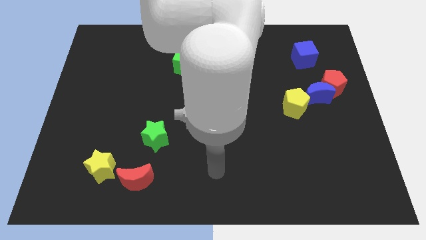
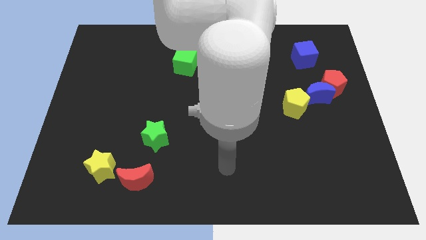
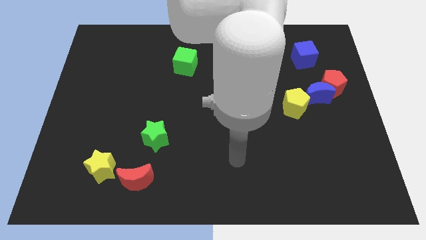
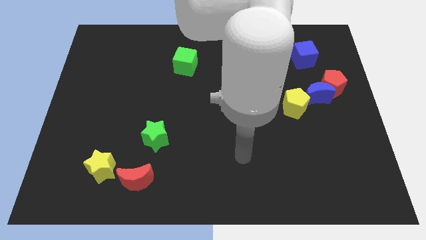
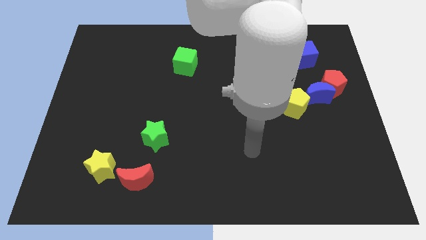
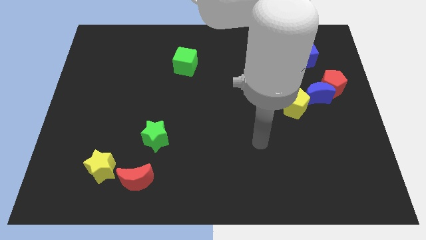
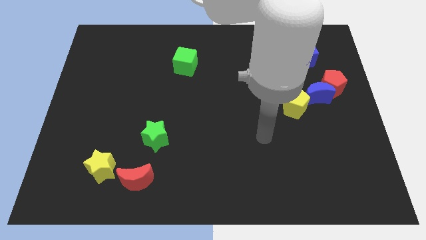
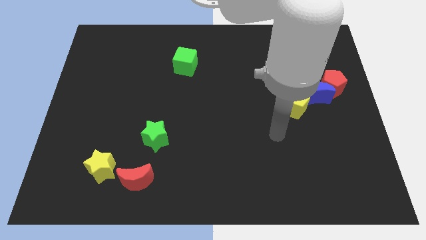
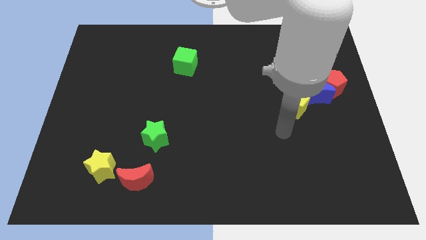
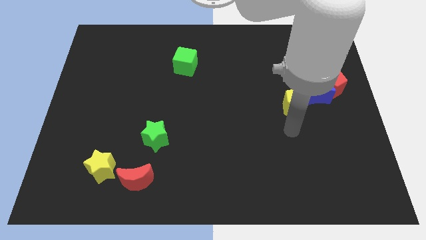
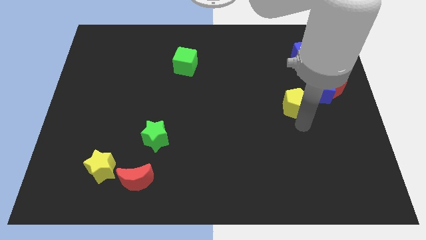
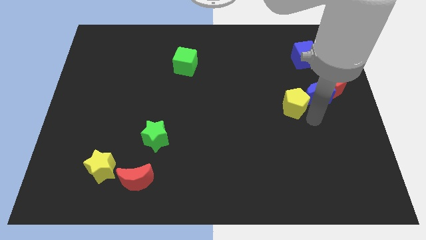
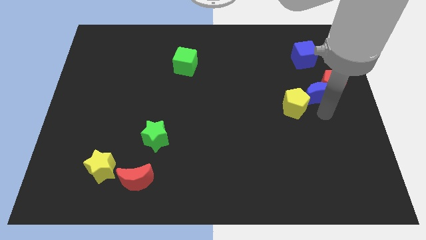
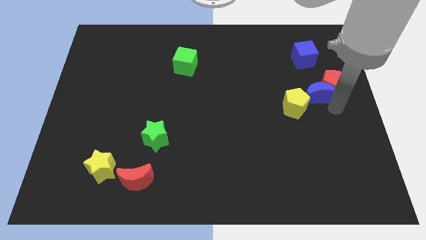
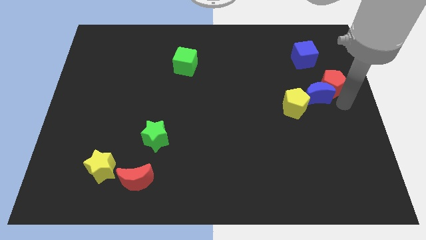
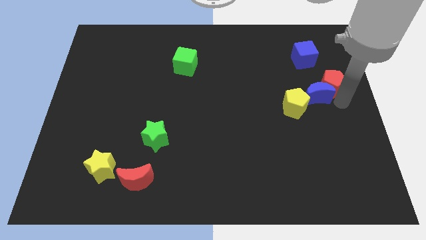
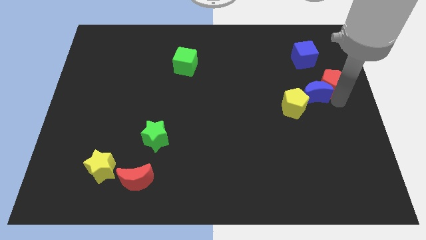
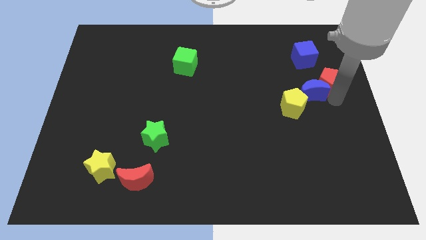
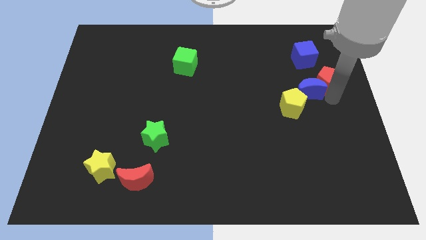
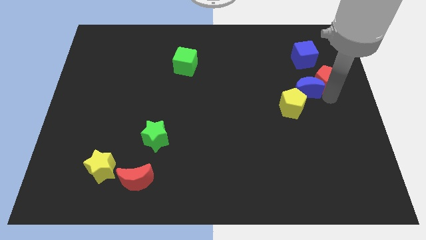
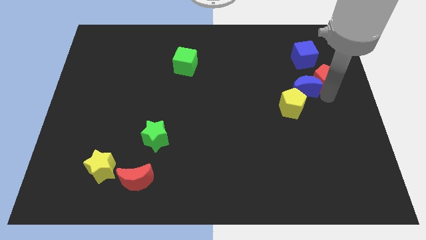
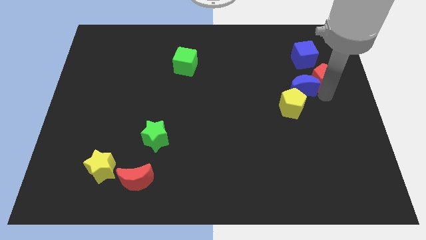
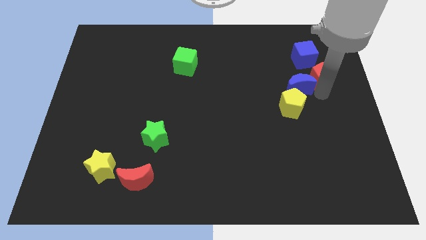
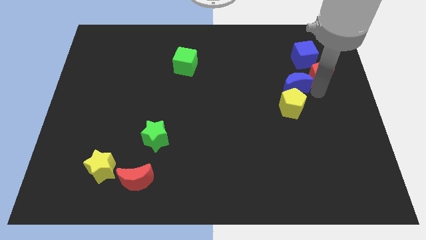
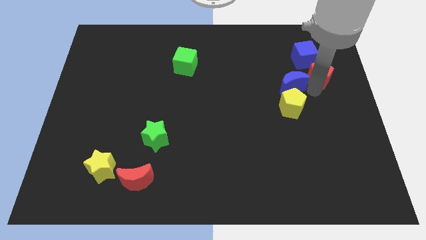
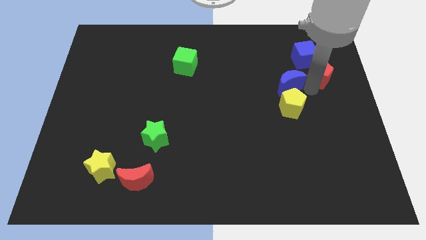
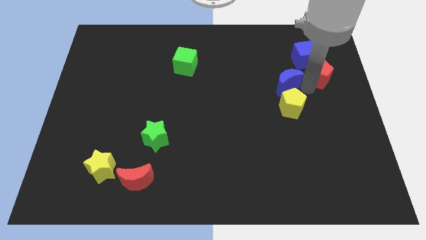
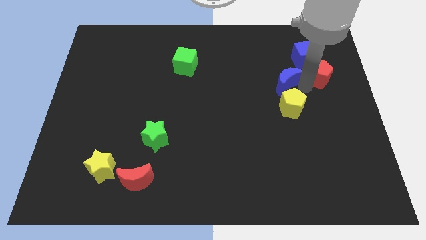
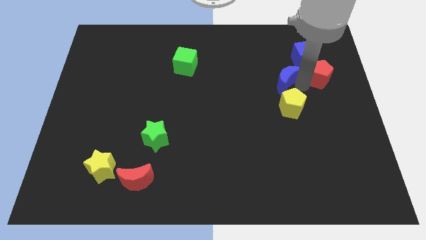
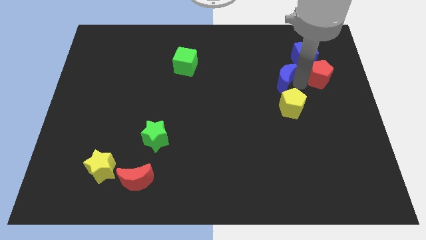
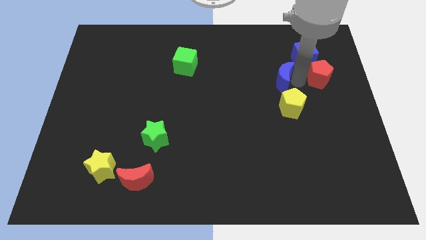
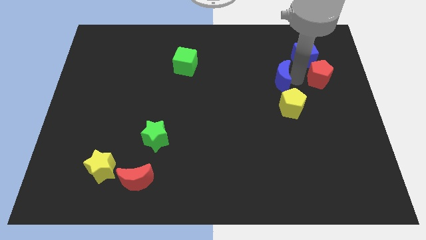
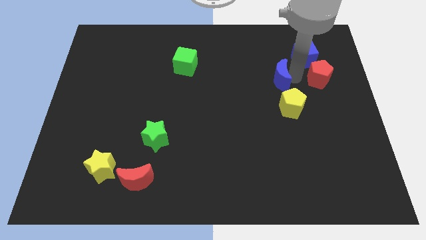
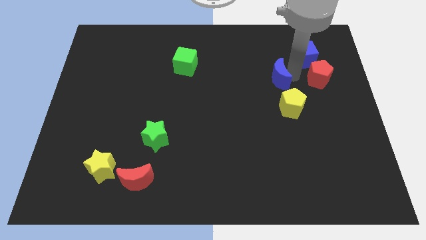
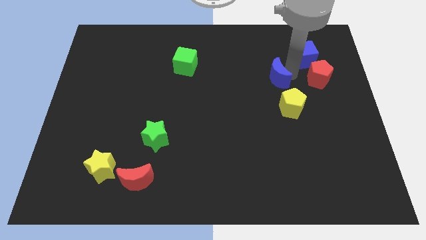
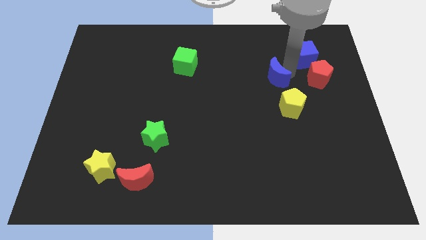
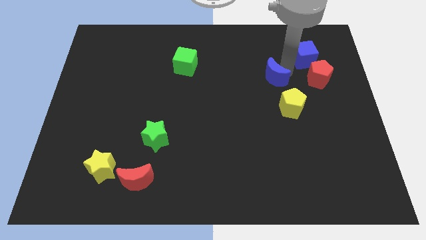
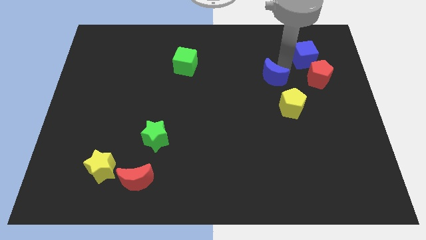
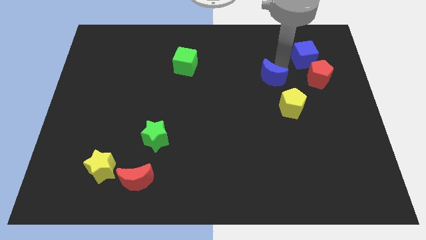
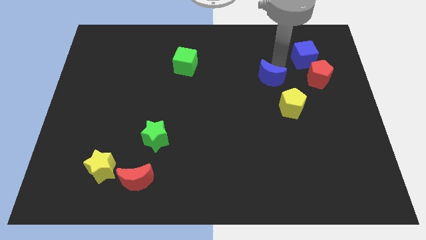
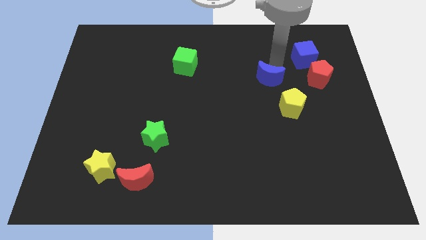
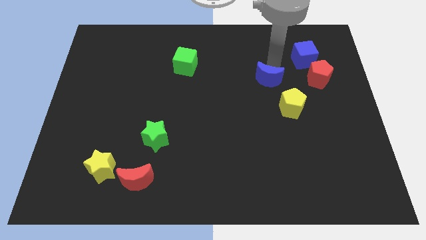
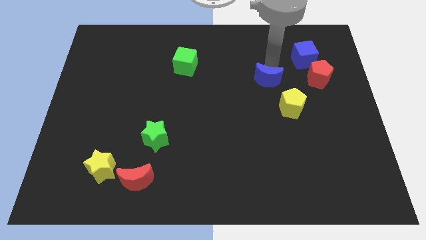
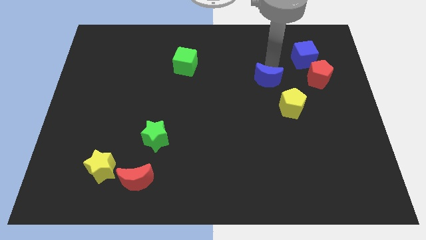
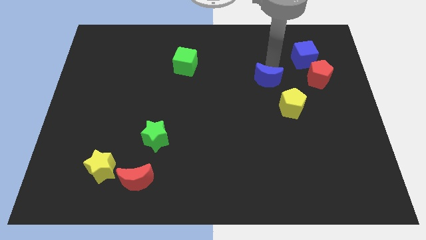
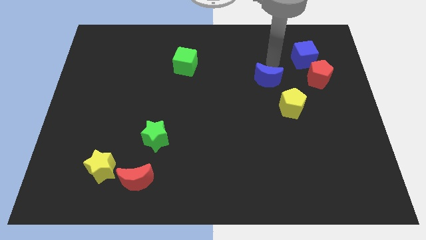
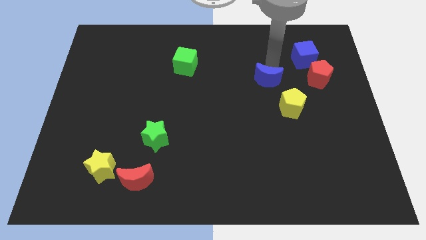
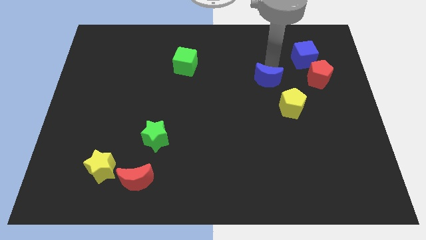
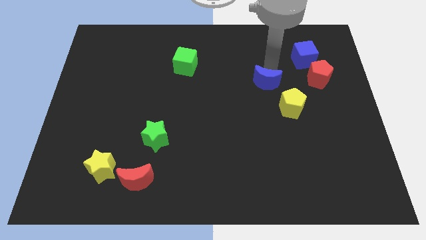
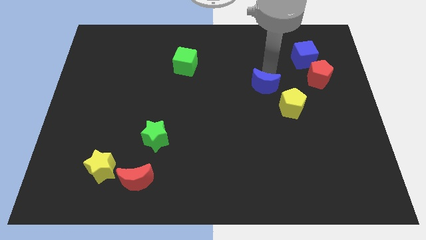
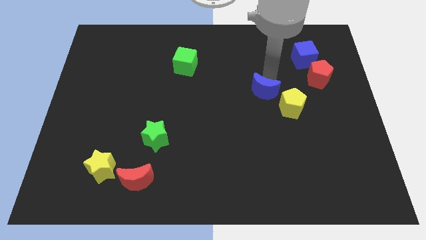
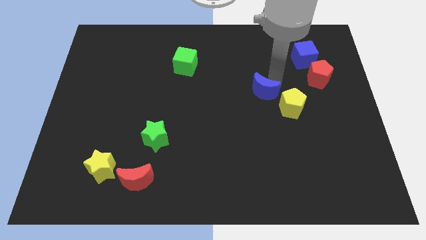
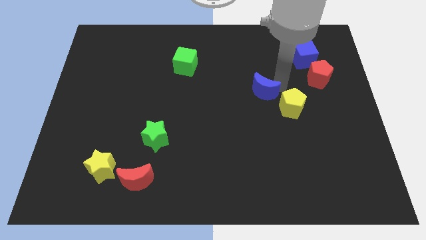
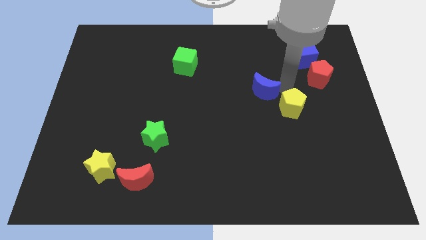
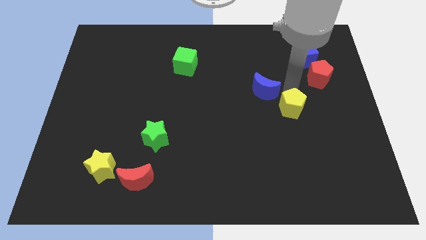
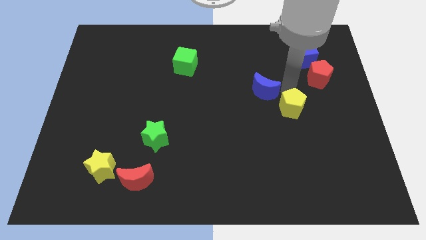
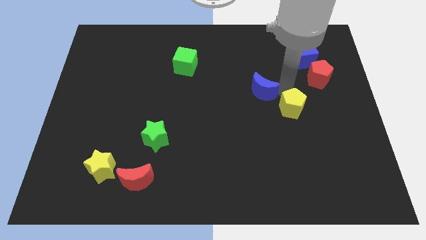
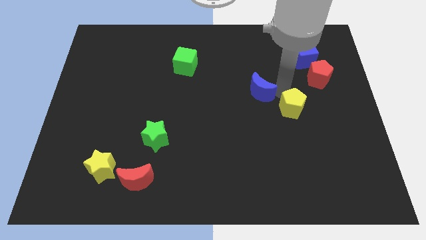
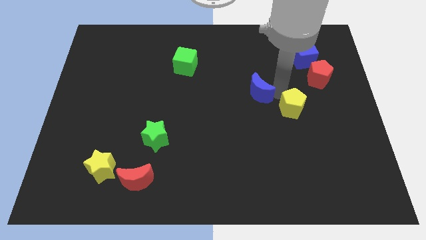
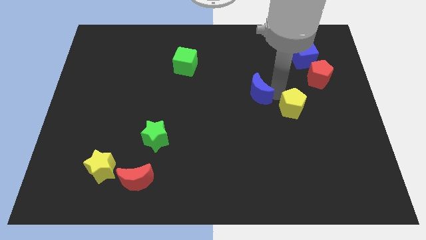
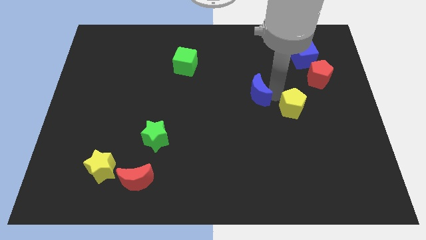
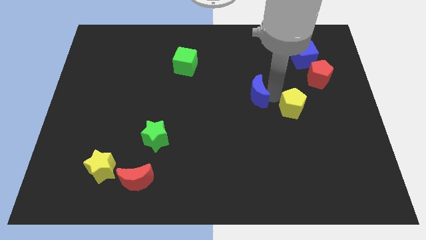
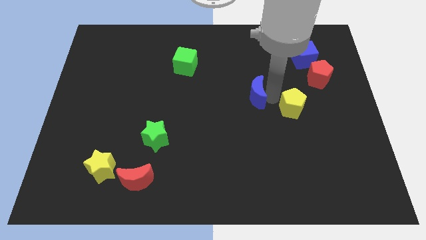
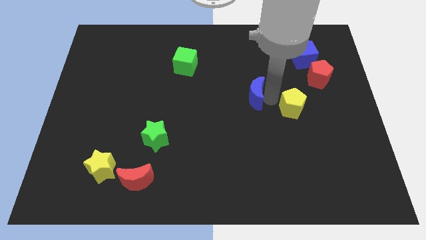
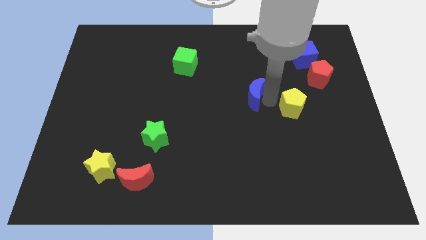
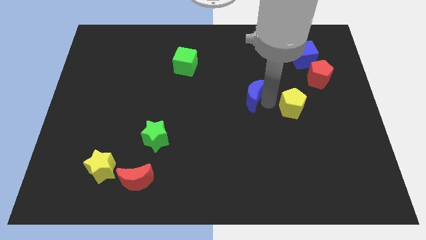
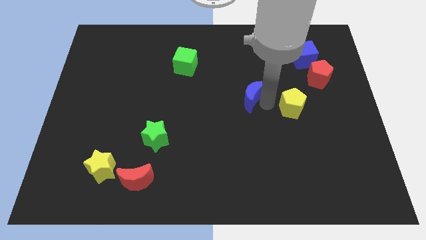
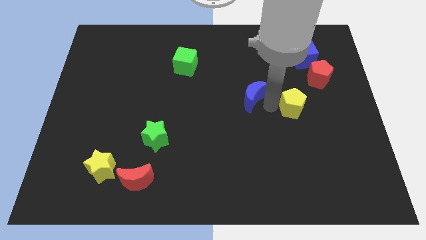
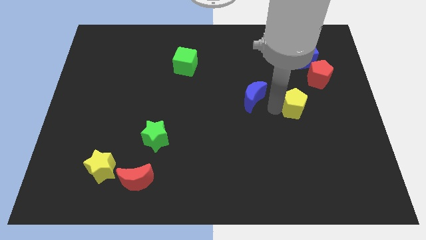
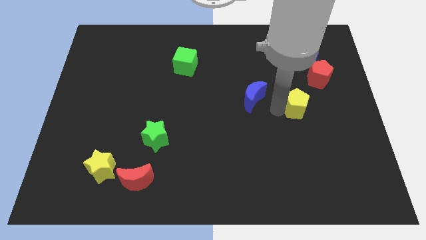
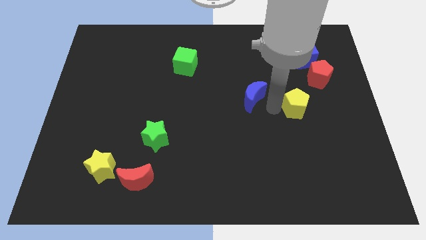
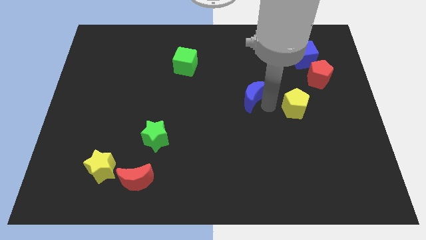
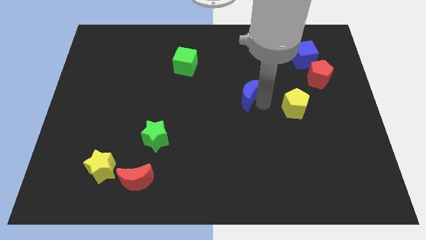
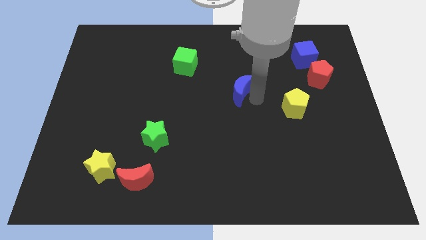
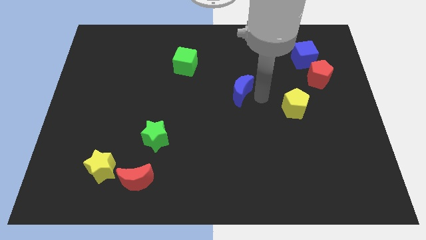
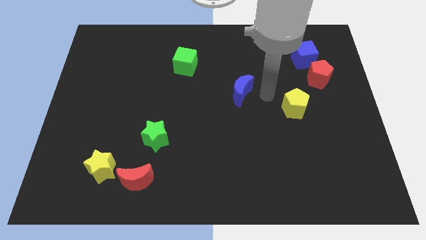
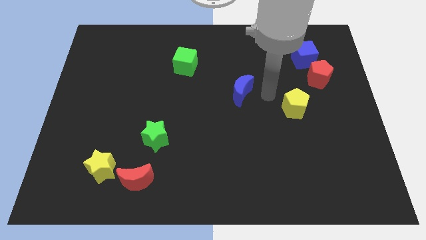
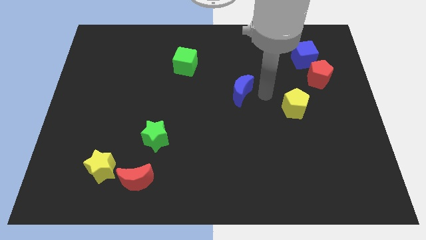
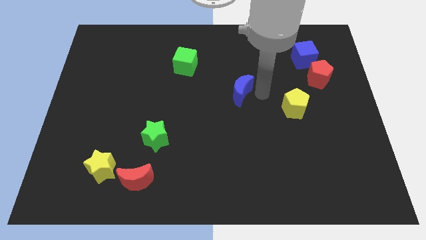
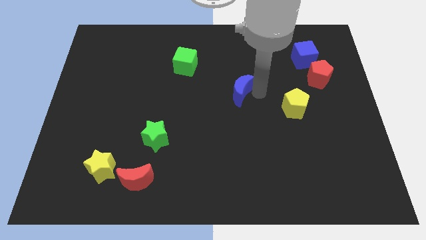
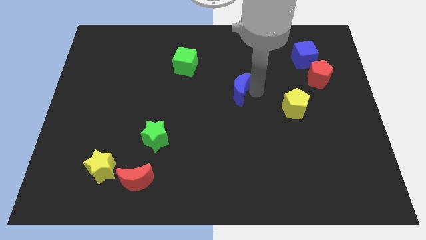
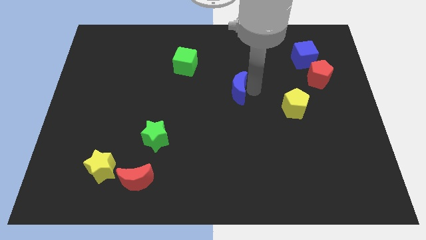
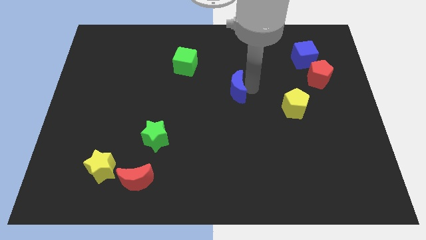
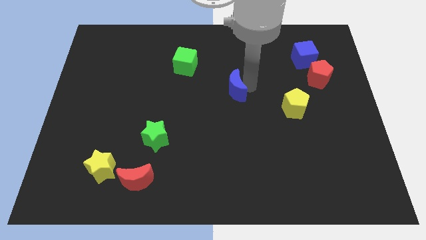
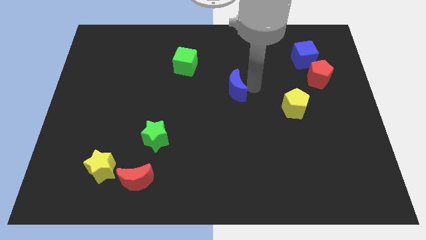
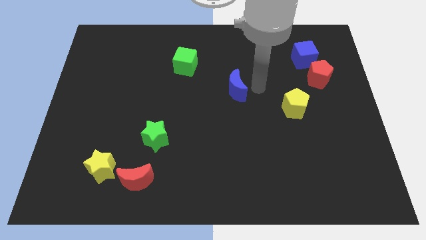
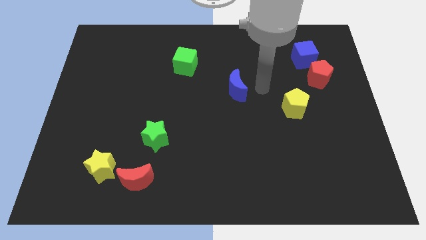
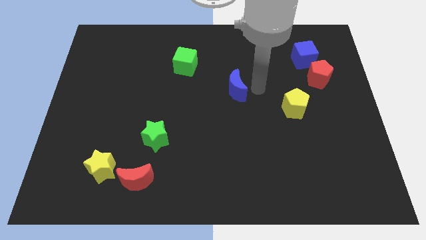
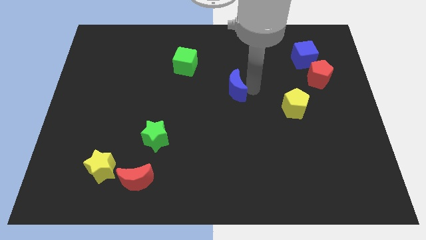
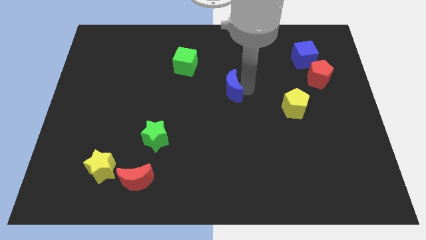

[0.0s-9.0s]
slide the blue moon left
